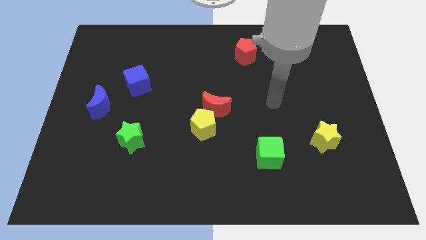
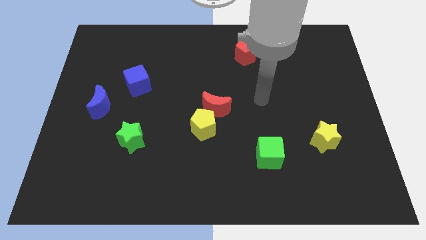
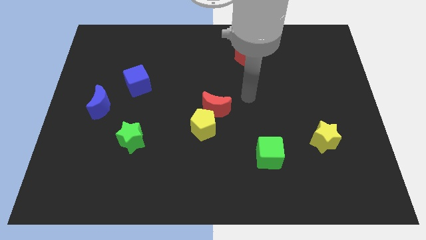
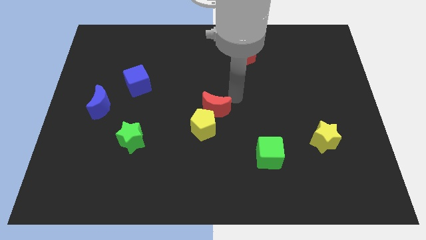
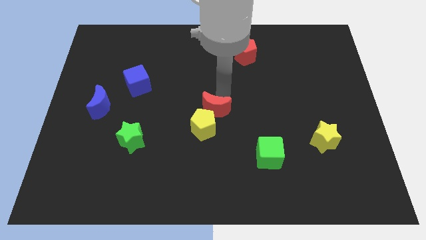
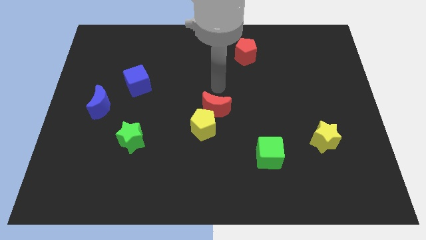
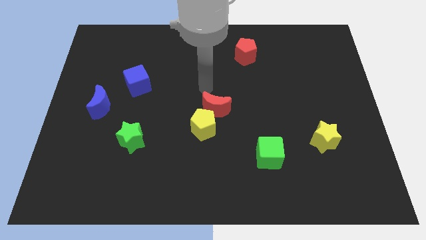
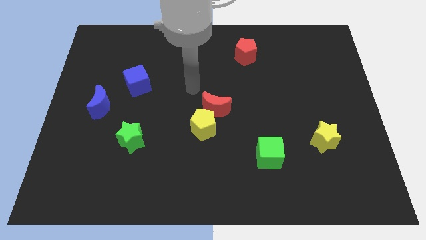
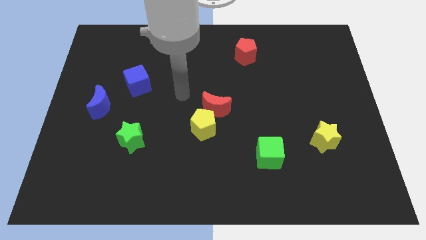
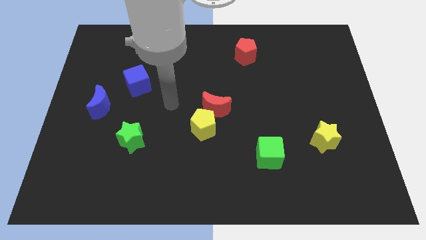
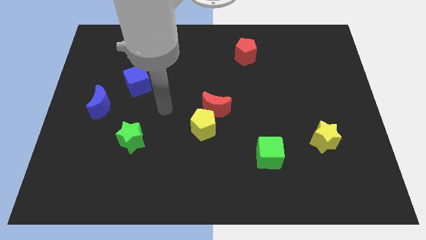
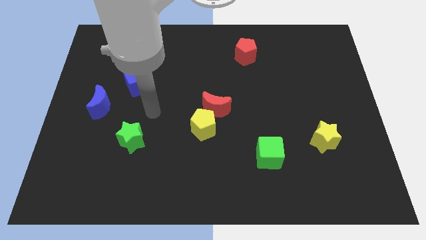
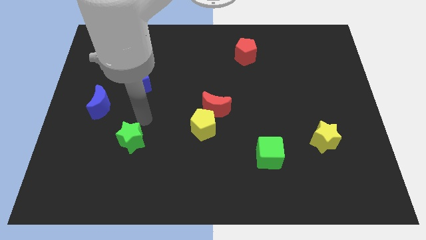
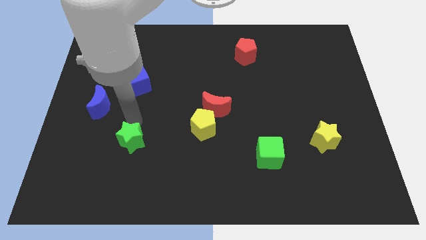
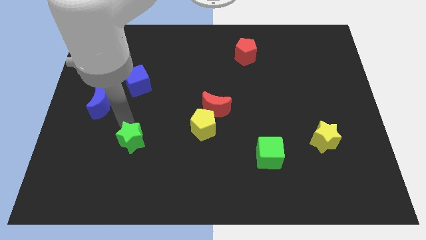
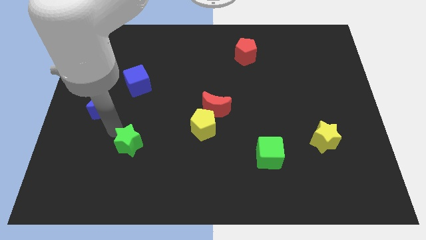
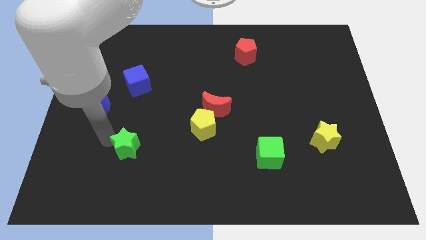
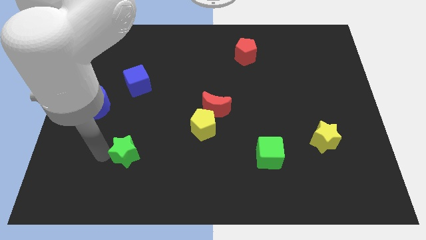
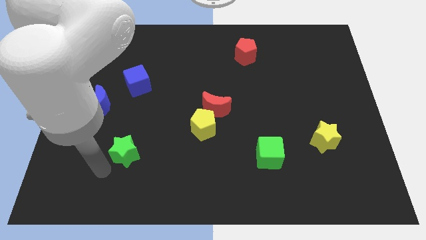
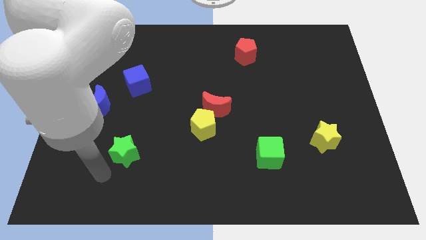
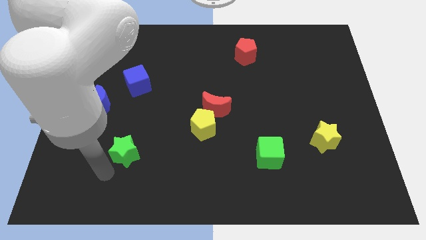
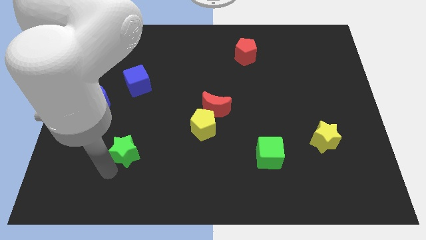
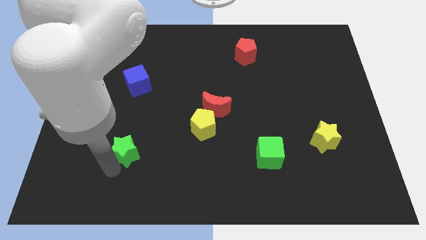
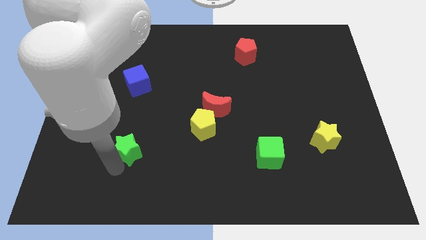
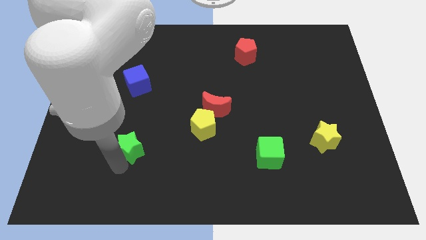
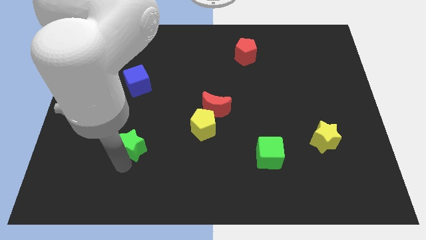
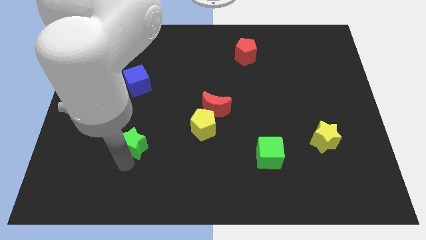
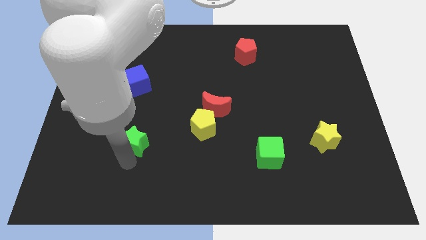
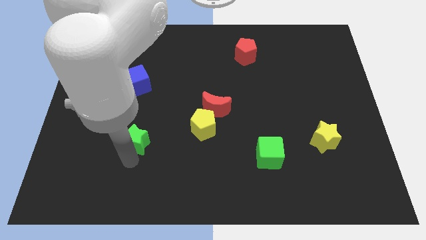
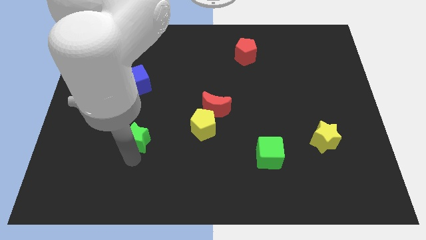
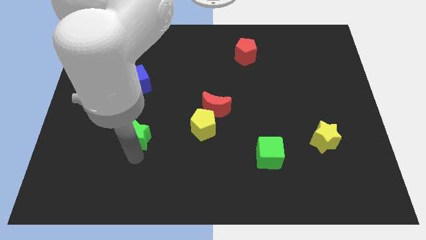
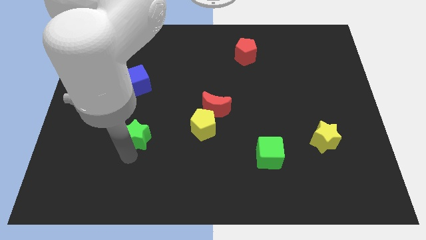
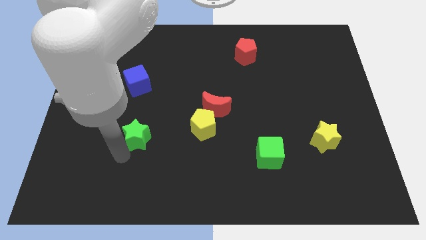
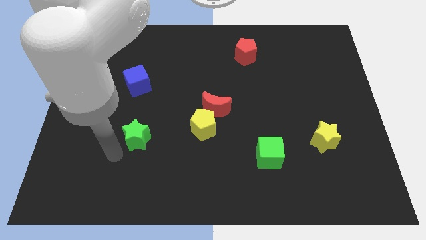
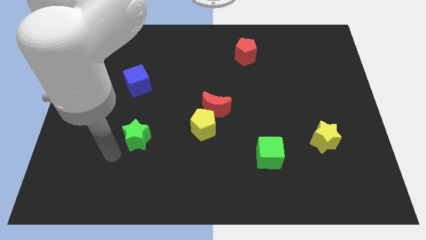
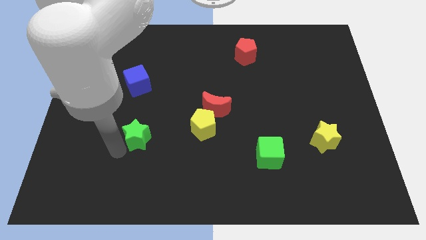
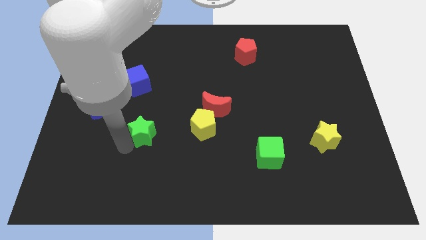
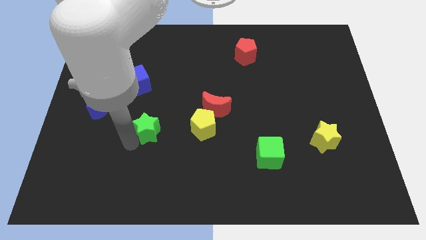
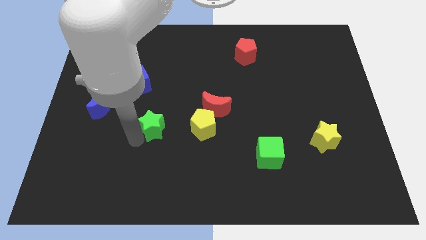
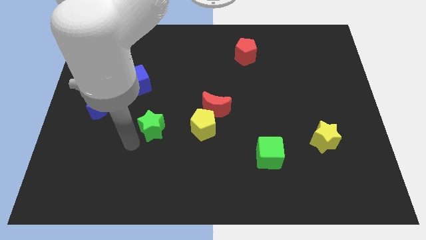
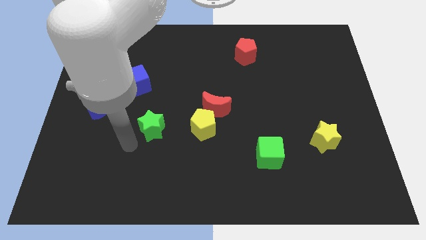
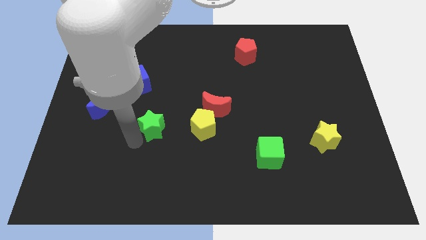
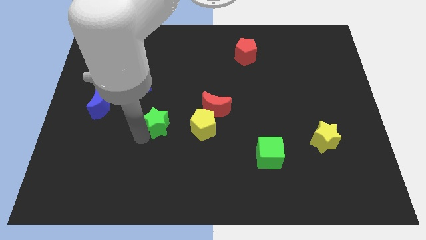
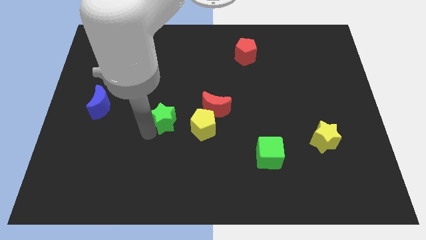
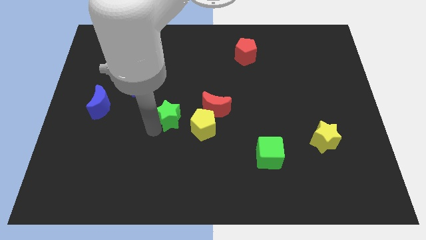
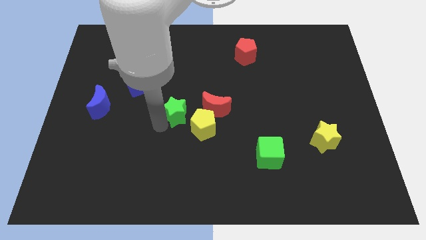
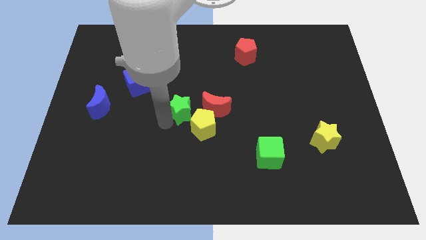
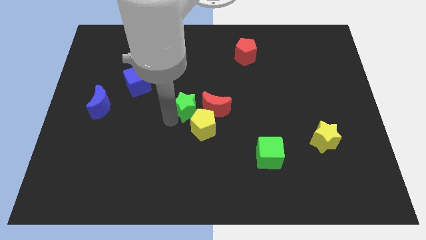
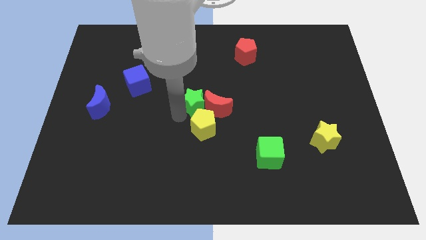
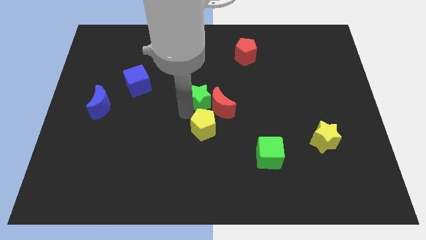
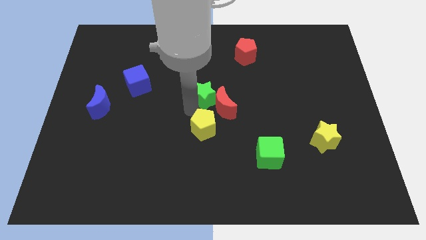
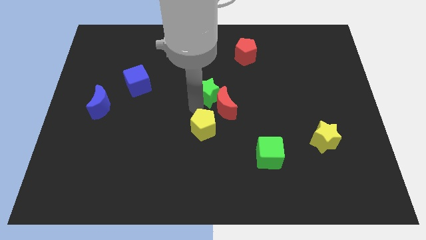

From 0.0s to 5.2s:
slide the green star upwards and then right

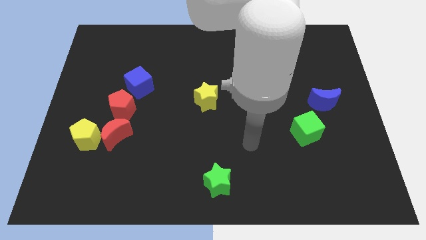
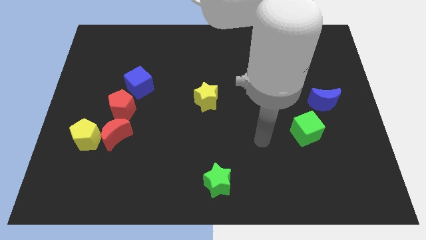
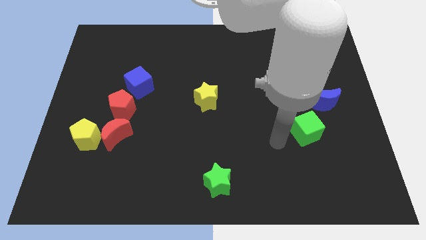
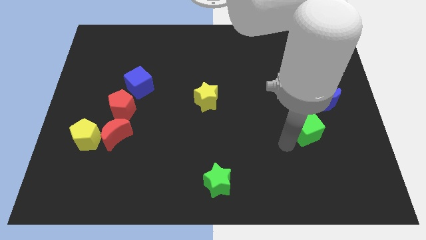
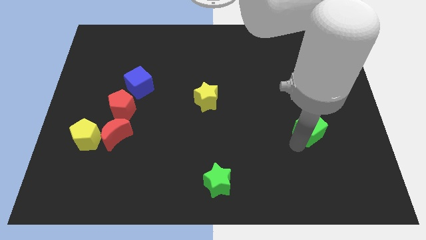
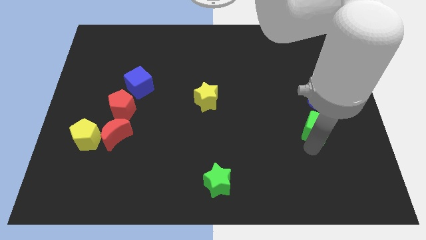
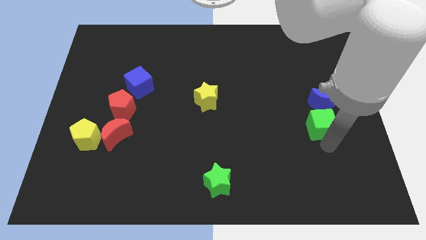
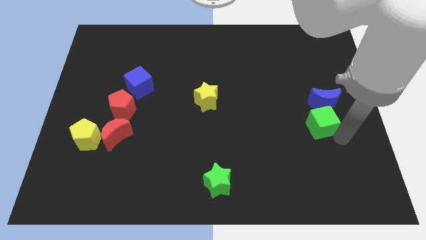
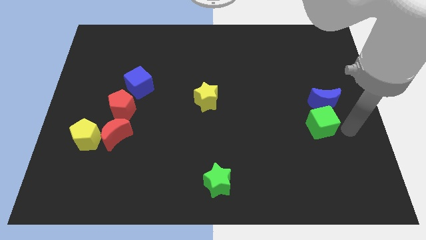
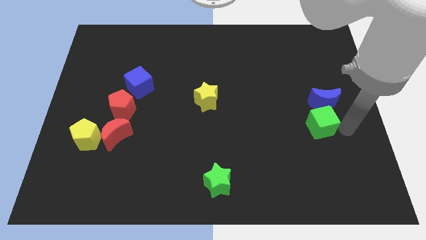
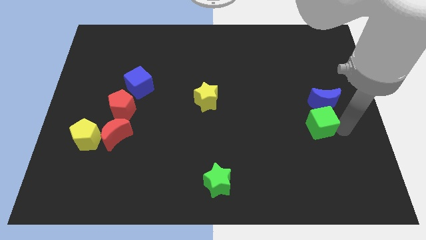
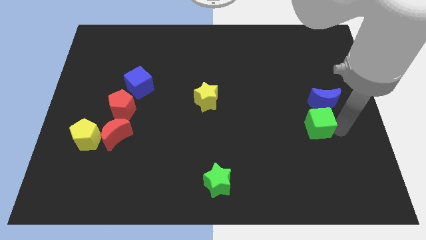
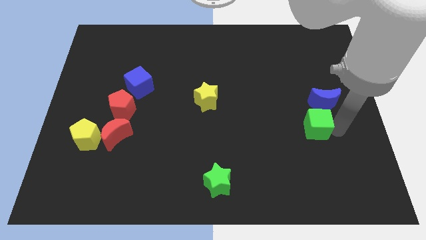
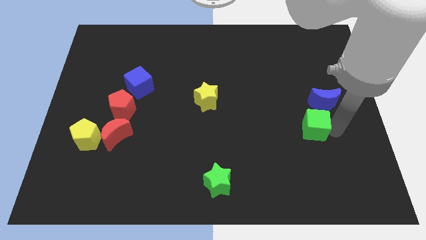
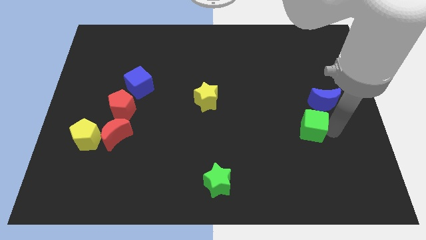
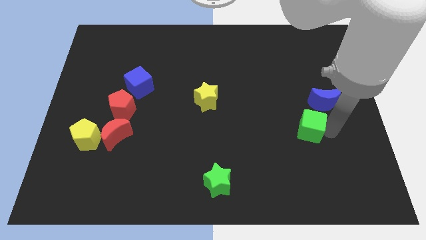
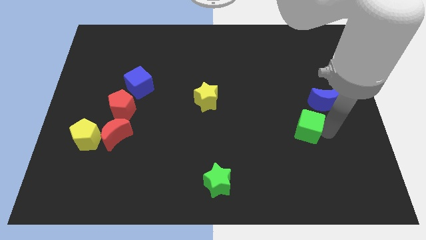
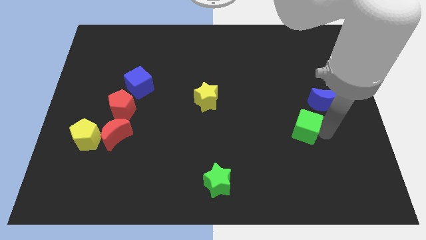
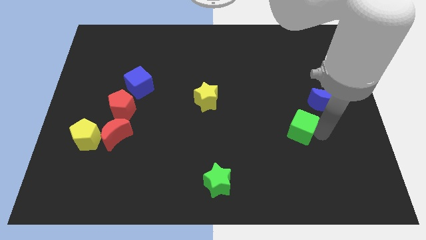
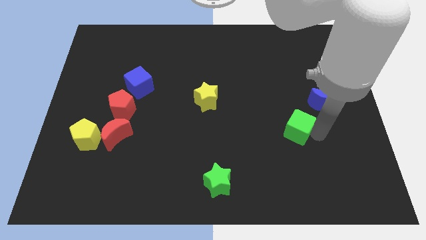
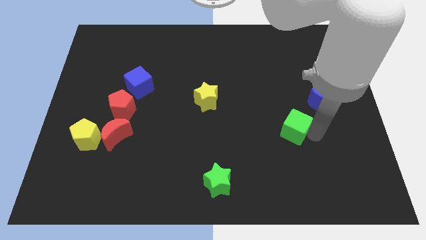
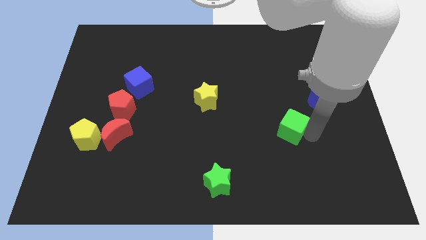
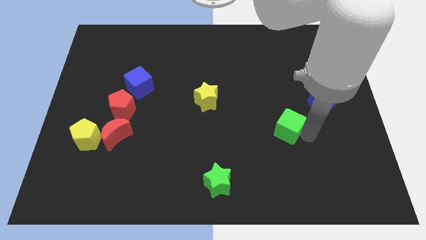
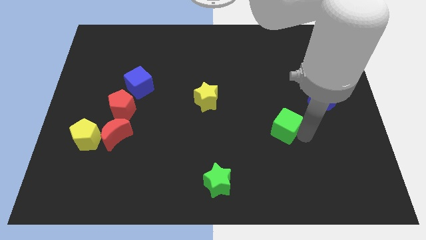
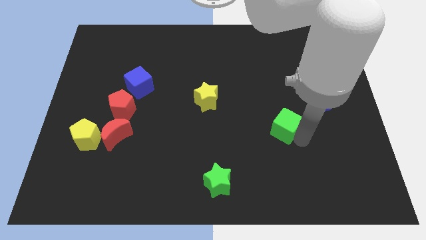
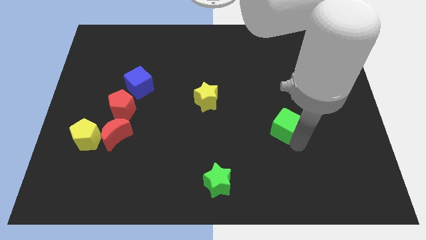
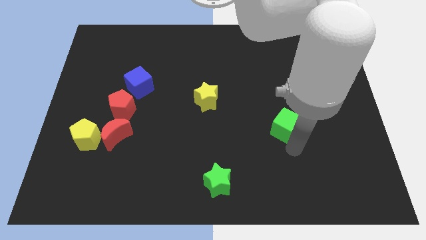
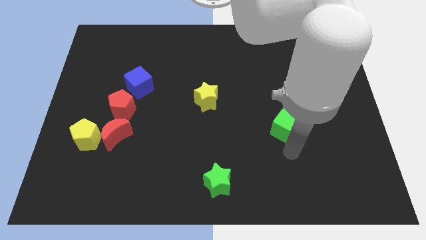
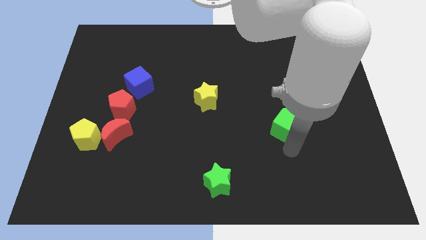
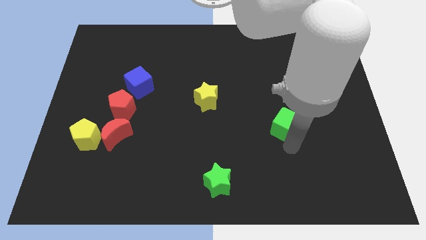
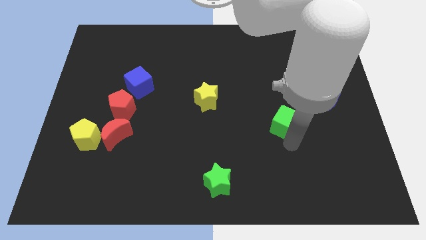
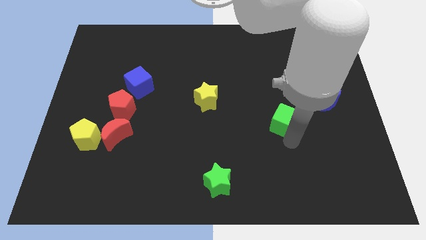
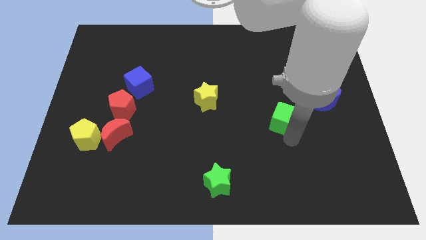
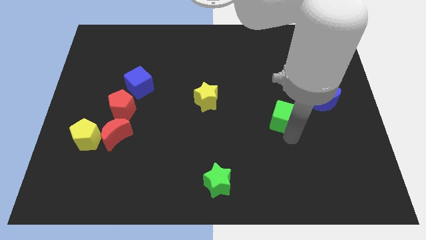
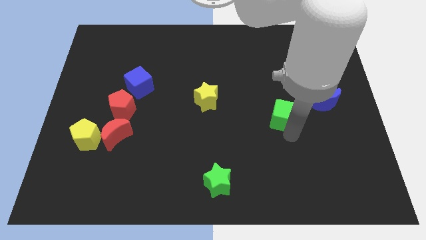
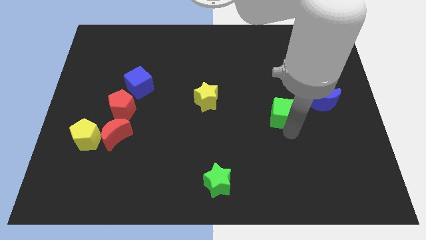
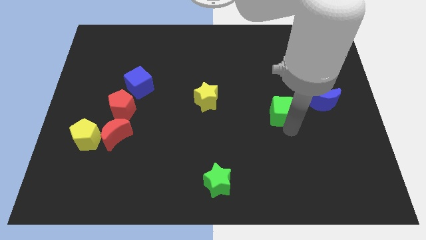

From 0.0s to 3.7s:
slide the green cube diagonally upwards and to the left a little bit
